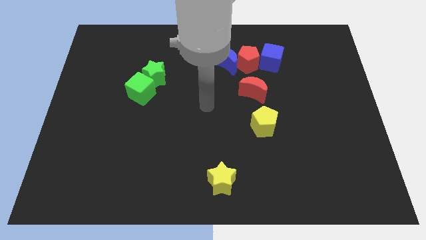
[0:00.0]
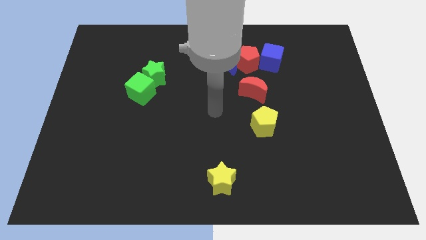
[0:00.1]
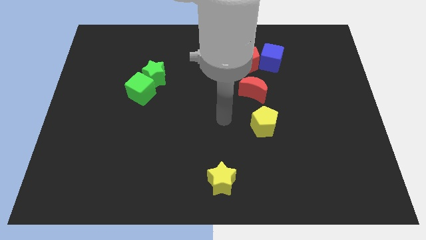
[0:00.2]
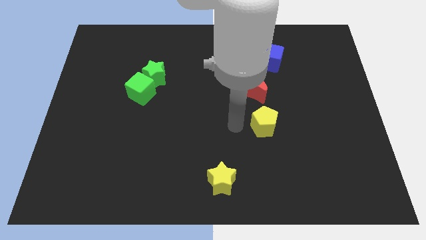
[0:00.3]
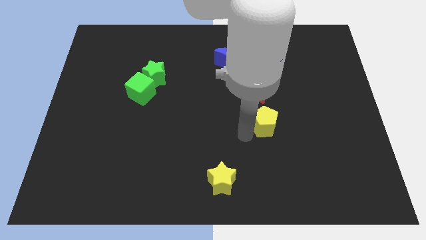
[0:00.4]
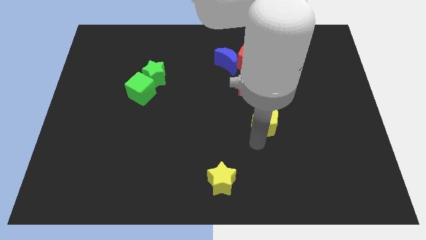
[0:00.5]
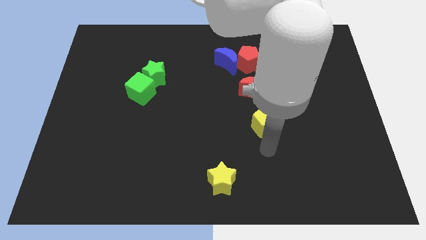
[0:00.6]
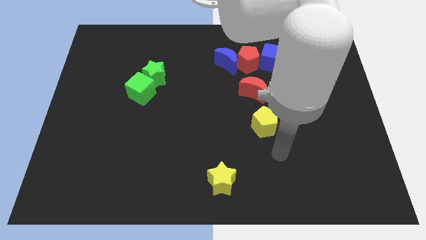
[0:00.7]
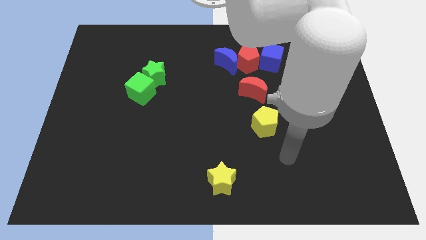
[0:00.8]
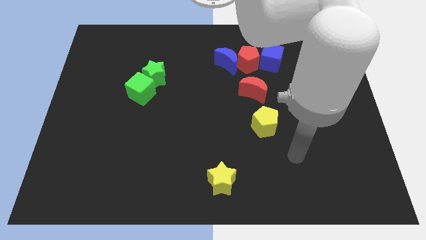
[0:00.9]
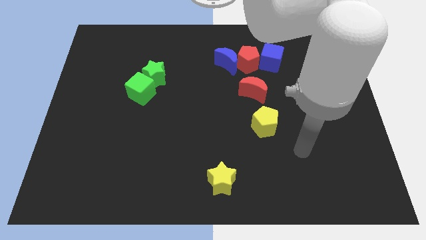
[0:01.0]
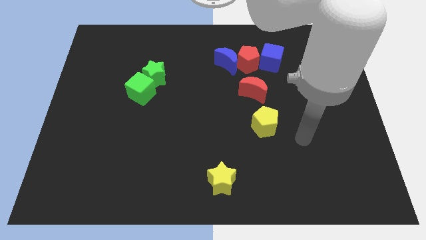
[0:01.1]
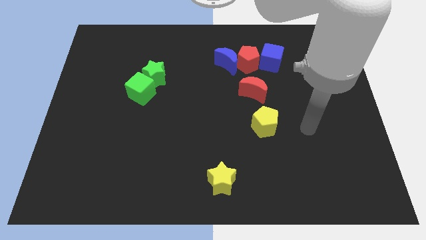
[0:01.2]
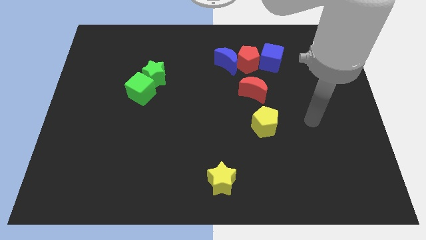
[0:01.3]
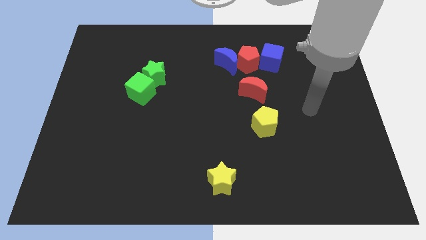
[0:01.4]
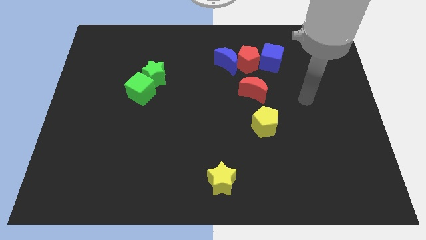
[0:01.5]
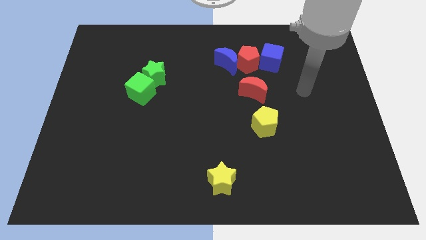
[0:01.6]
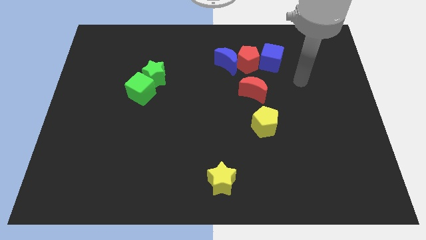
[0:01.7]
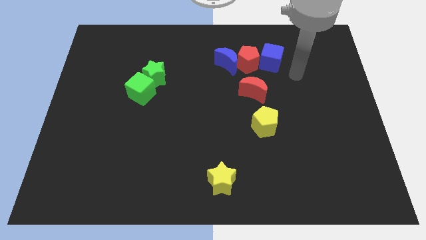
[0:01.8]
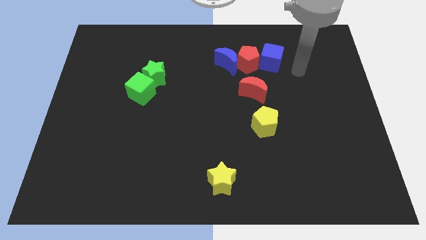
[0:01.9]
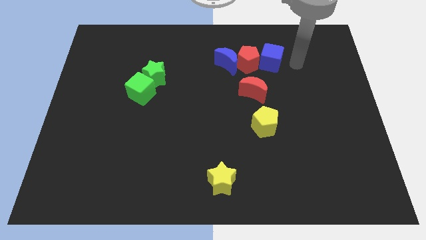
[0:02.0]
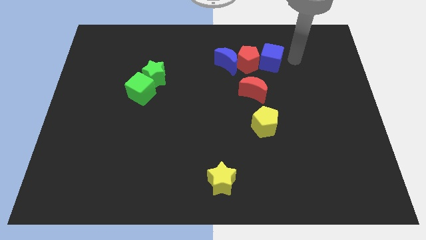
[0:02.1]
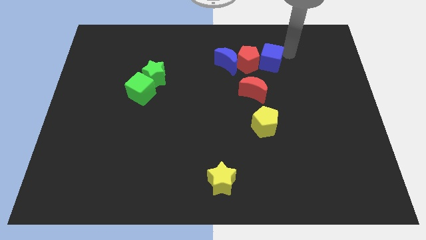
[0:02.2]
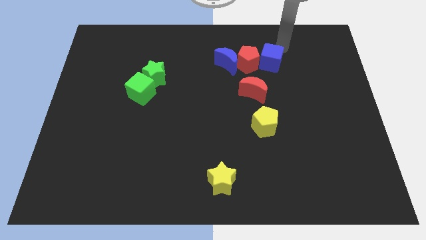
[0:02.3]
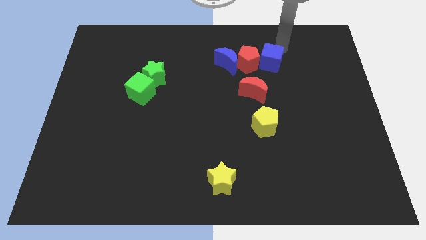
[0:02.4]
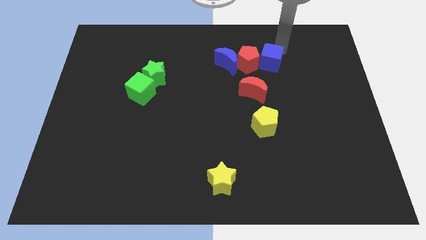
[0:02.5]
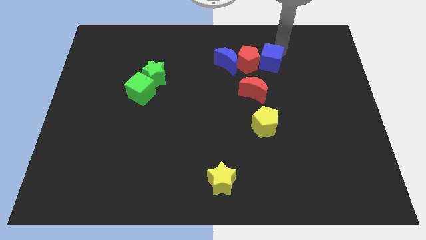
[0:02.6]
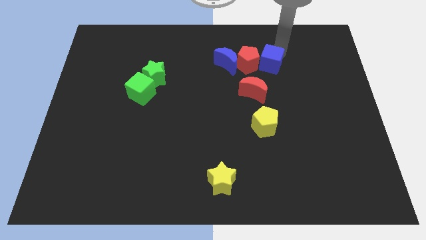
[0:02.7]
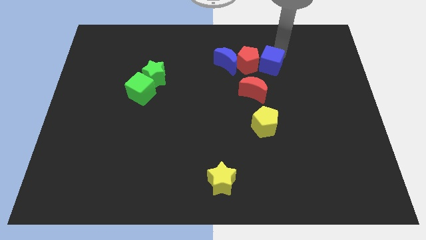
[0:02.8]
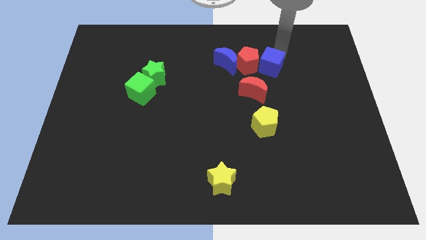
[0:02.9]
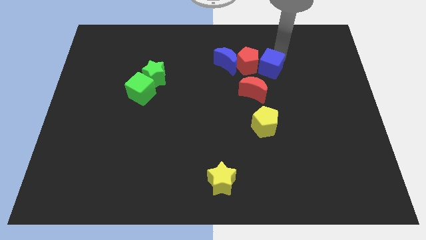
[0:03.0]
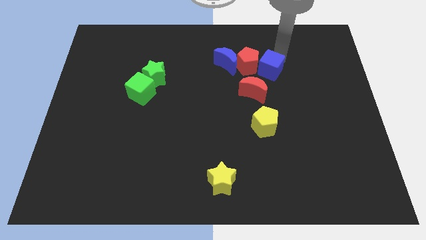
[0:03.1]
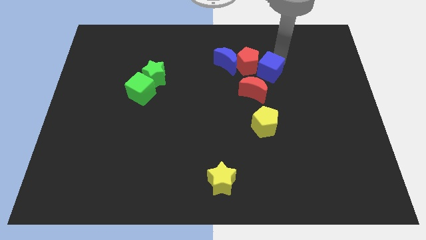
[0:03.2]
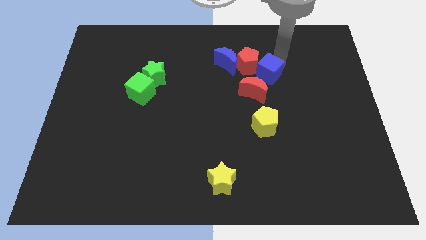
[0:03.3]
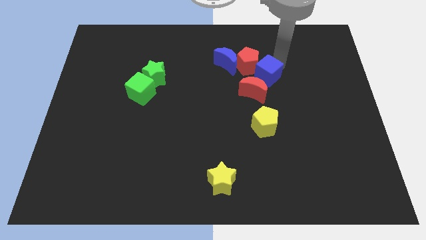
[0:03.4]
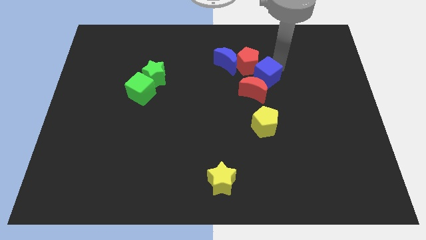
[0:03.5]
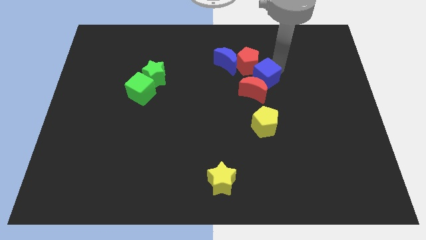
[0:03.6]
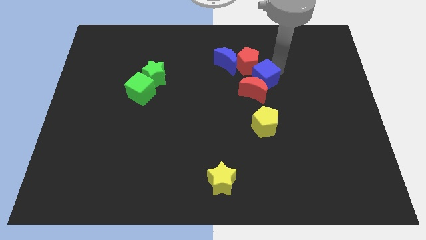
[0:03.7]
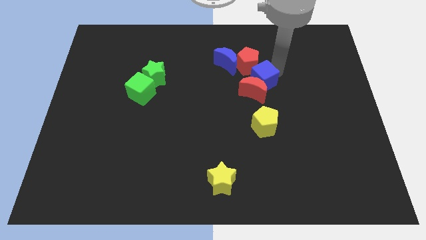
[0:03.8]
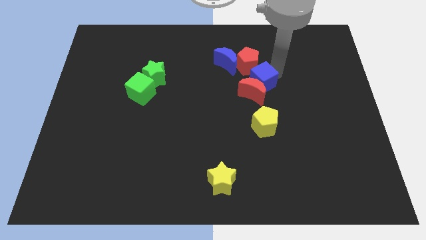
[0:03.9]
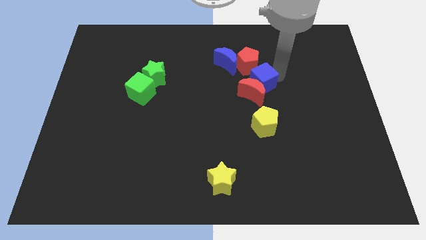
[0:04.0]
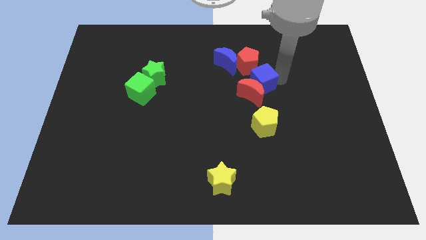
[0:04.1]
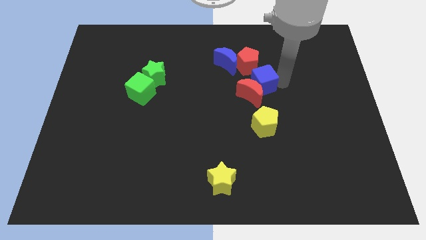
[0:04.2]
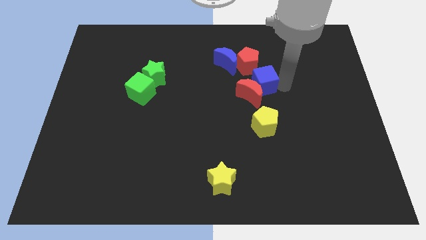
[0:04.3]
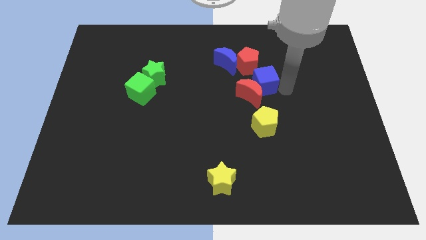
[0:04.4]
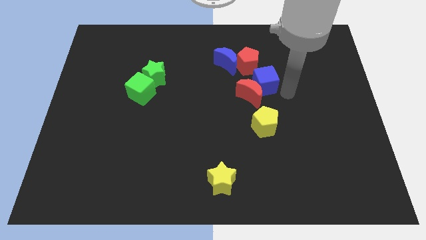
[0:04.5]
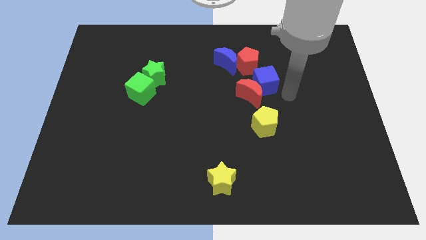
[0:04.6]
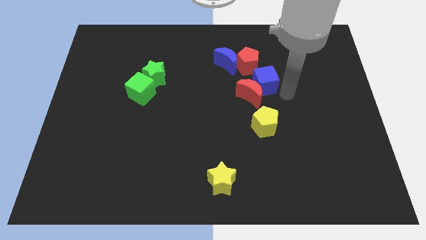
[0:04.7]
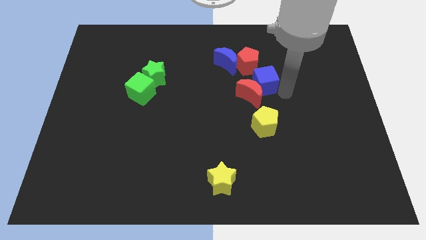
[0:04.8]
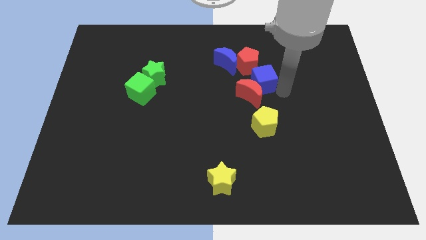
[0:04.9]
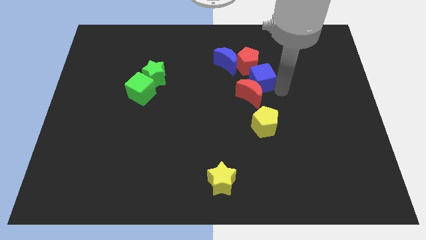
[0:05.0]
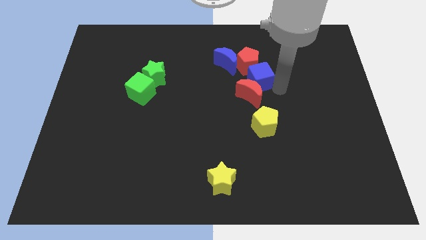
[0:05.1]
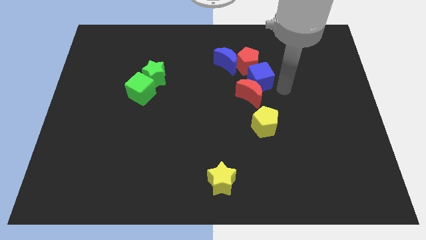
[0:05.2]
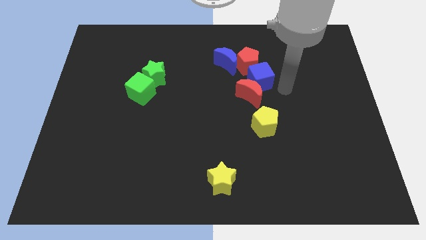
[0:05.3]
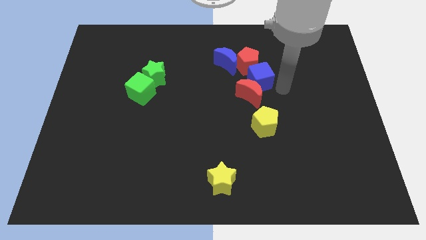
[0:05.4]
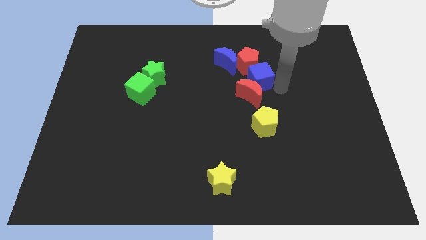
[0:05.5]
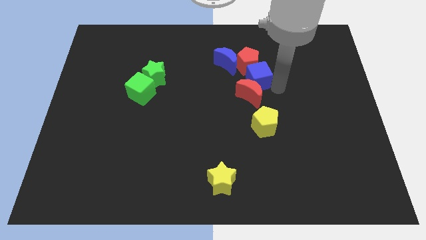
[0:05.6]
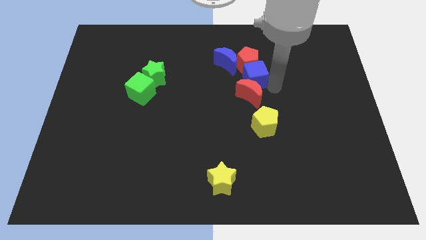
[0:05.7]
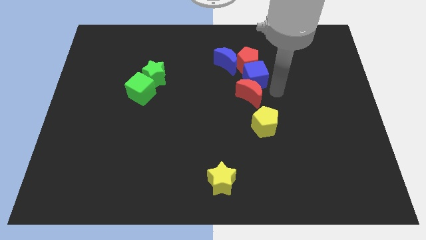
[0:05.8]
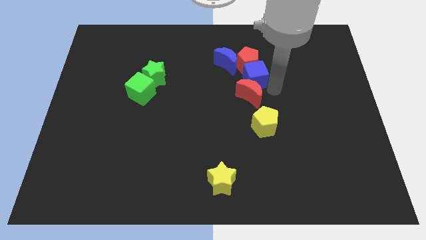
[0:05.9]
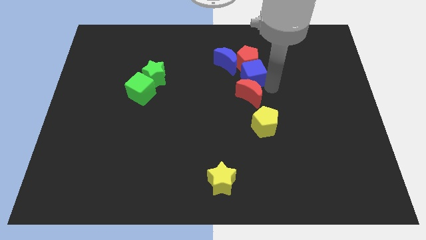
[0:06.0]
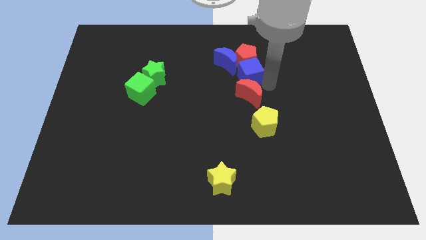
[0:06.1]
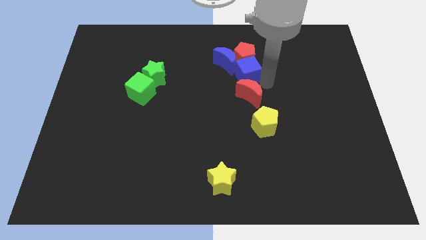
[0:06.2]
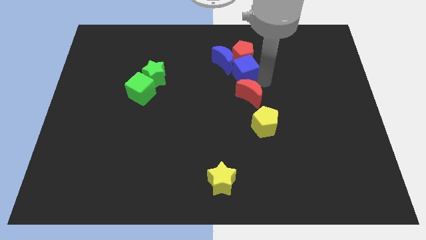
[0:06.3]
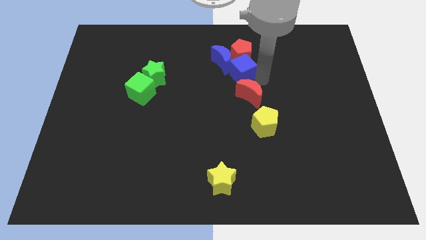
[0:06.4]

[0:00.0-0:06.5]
push the blue cube to the blue moon

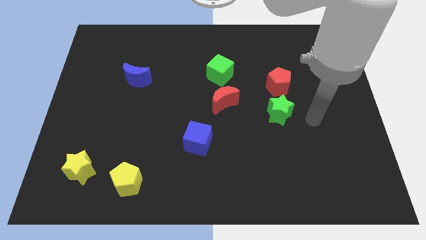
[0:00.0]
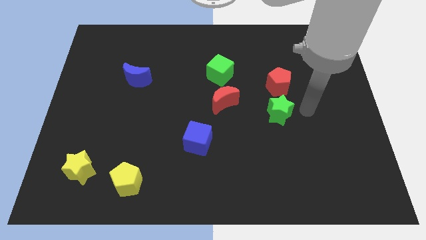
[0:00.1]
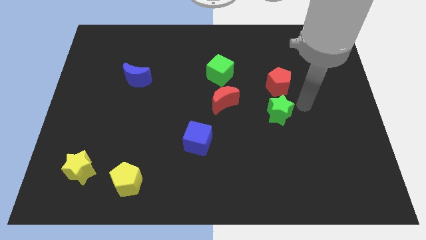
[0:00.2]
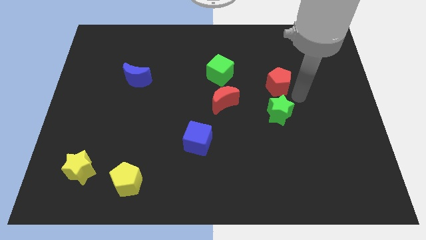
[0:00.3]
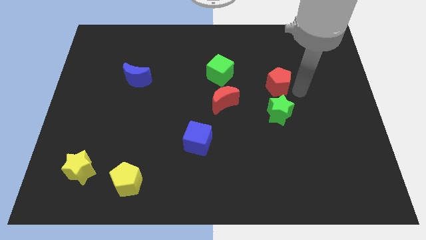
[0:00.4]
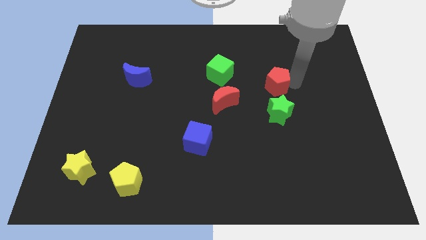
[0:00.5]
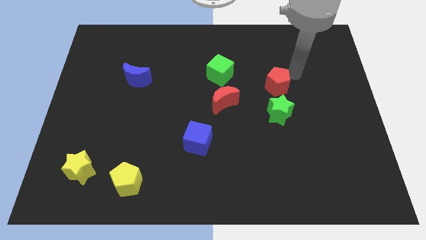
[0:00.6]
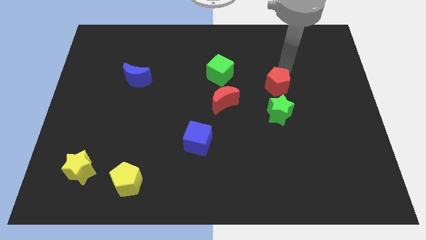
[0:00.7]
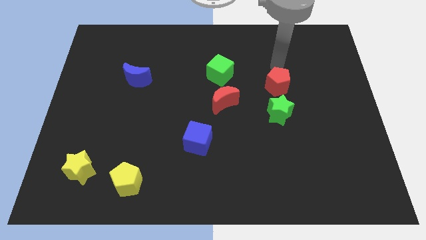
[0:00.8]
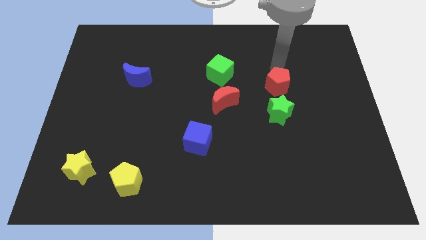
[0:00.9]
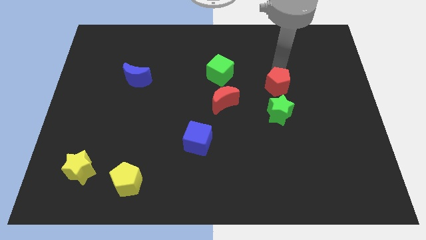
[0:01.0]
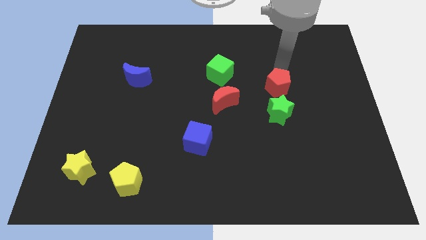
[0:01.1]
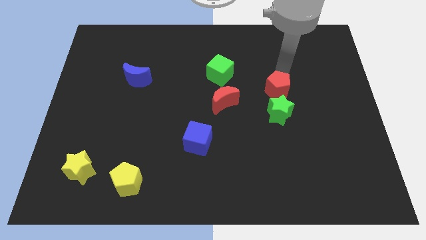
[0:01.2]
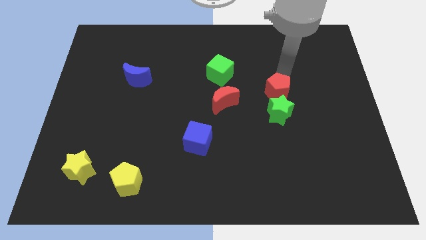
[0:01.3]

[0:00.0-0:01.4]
put the red pentagon next to the green star
